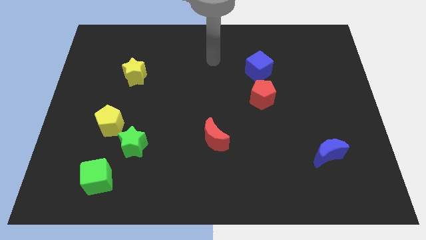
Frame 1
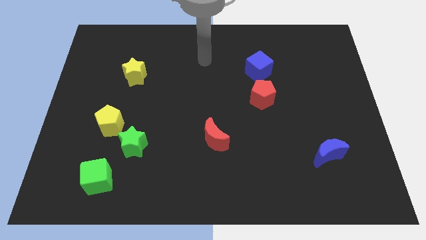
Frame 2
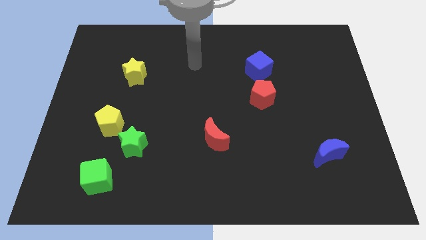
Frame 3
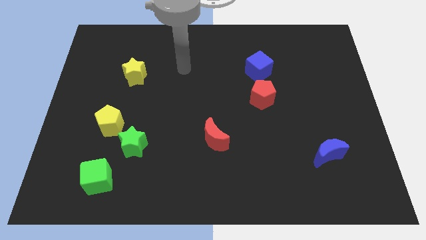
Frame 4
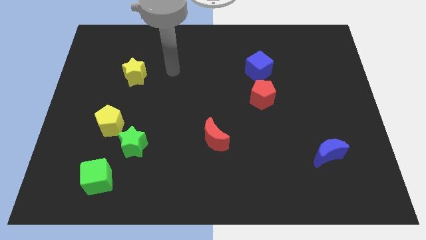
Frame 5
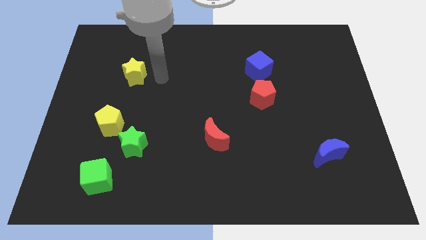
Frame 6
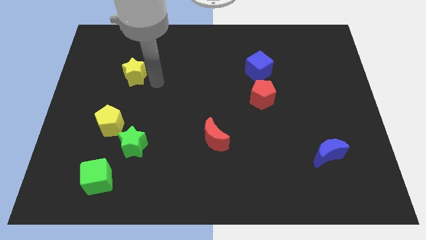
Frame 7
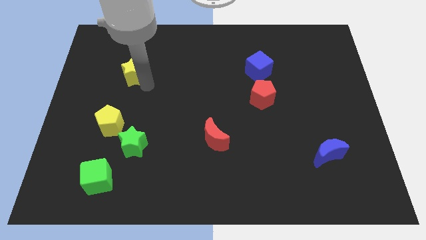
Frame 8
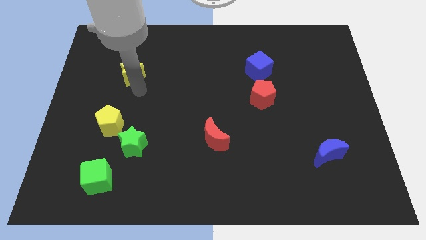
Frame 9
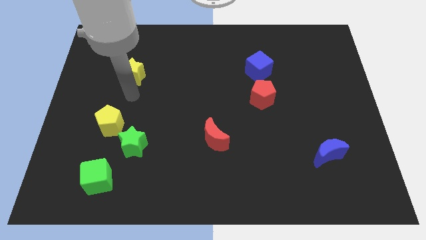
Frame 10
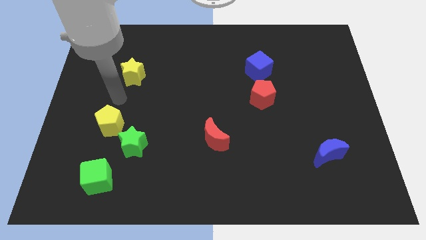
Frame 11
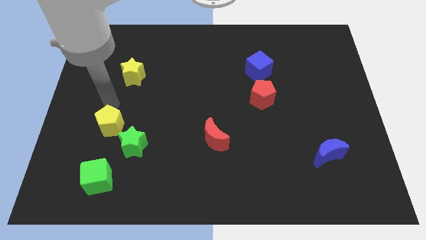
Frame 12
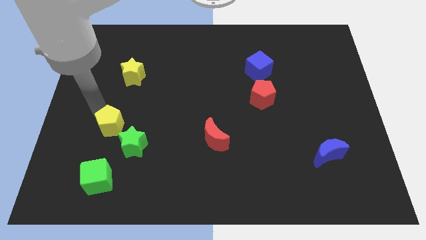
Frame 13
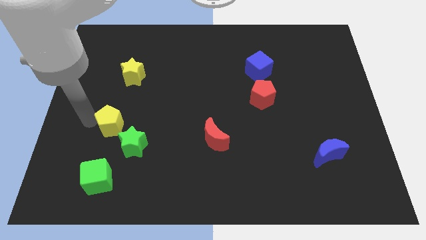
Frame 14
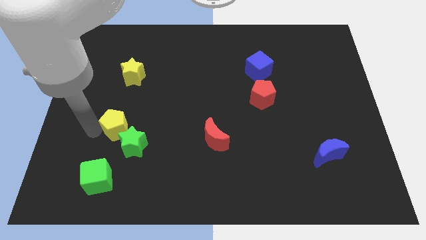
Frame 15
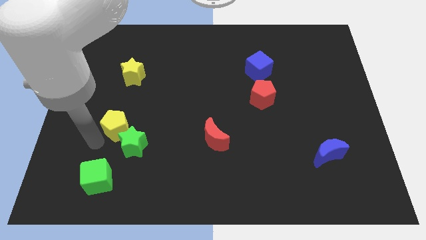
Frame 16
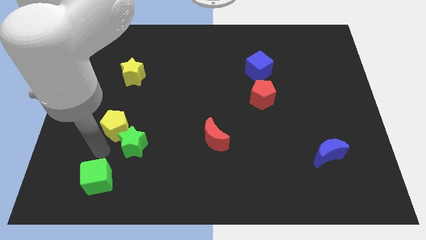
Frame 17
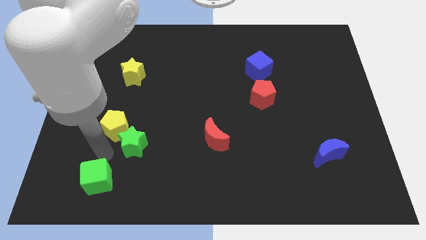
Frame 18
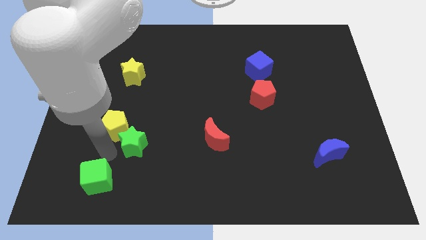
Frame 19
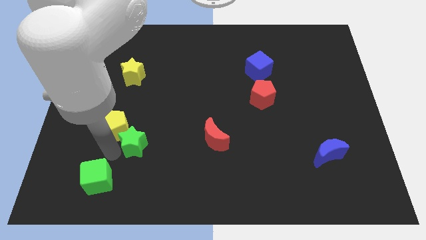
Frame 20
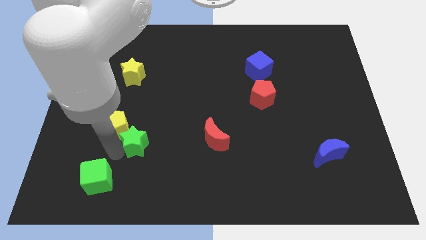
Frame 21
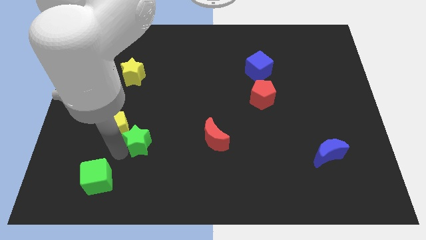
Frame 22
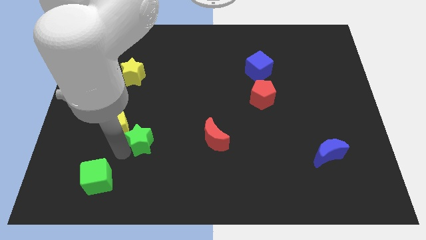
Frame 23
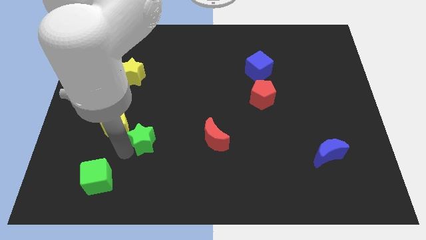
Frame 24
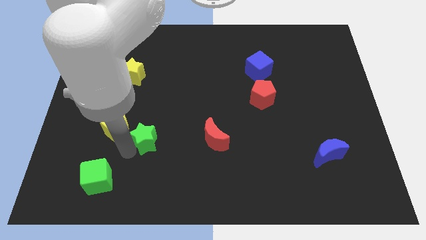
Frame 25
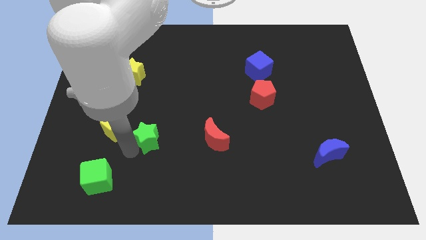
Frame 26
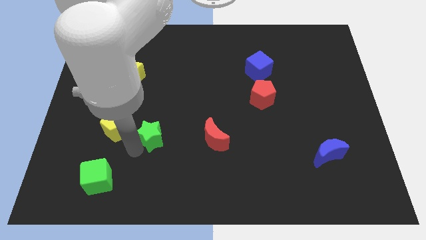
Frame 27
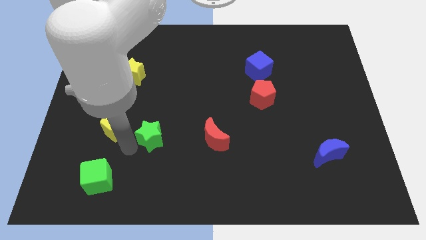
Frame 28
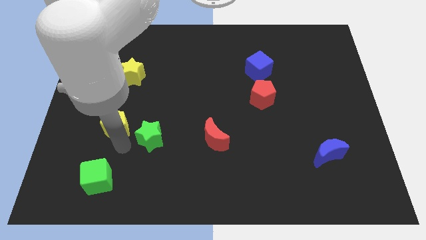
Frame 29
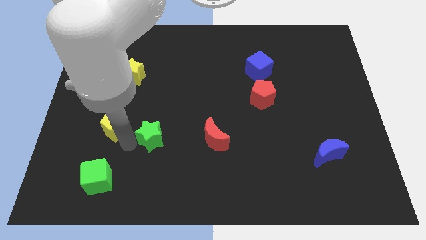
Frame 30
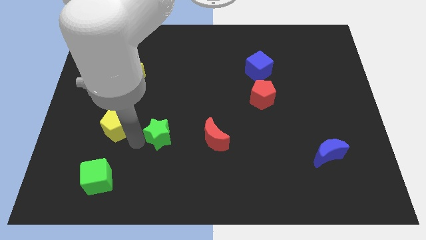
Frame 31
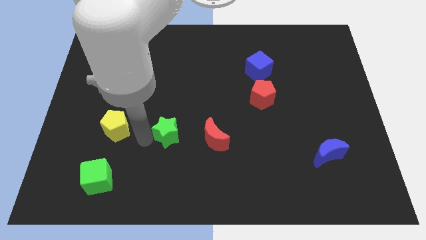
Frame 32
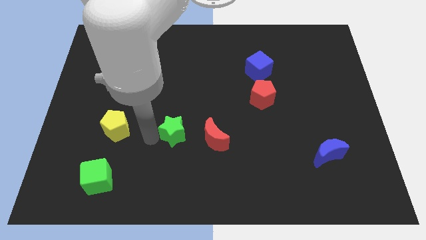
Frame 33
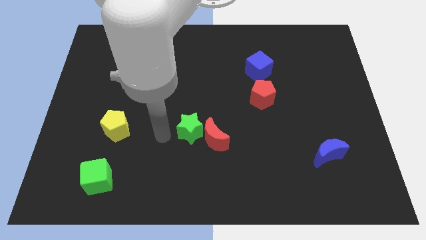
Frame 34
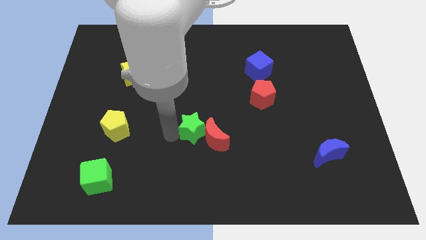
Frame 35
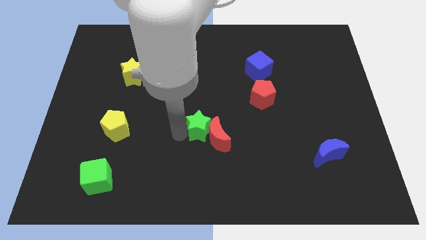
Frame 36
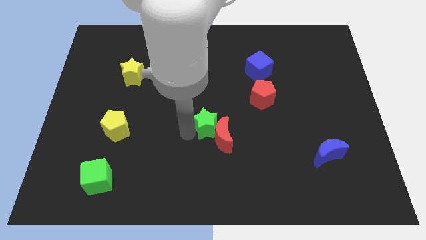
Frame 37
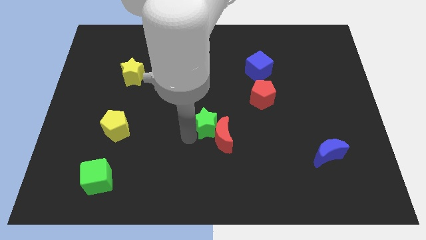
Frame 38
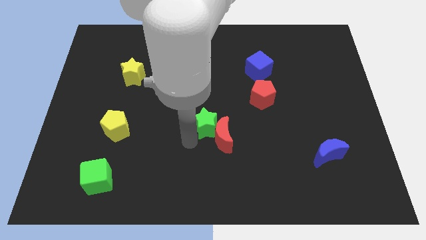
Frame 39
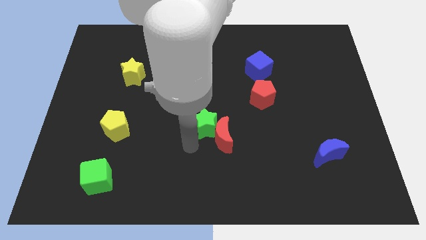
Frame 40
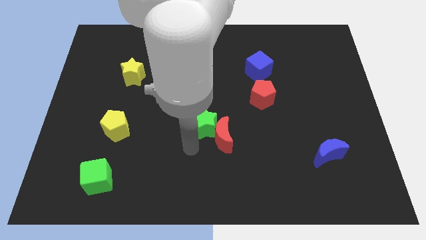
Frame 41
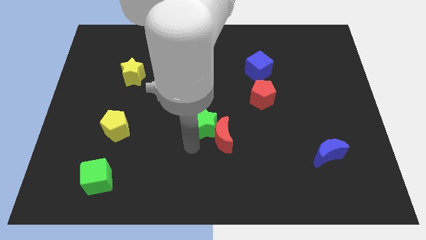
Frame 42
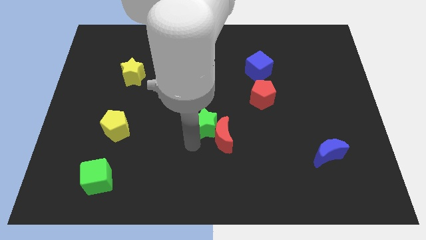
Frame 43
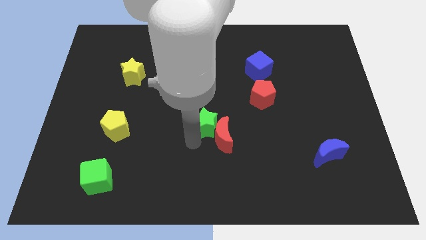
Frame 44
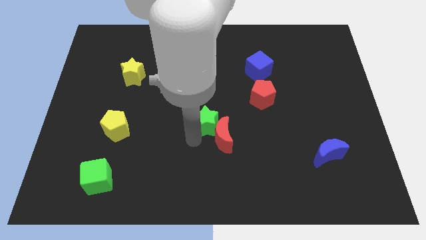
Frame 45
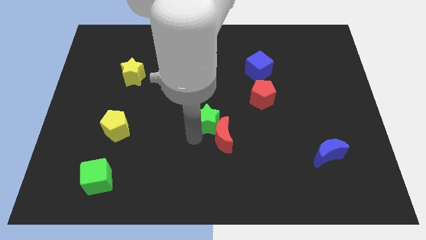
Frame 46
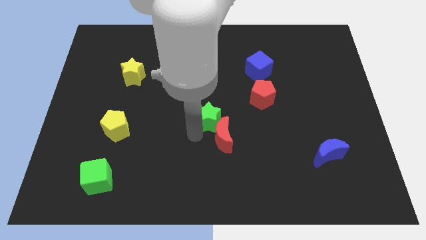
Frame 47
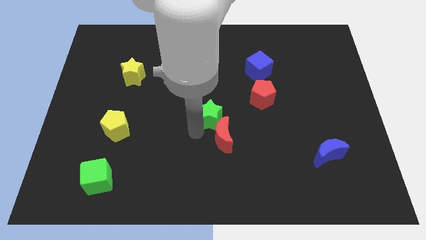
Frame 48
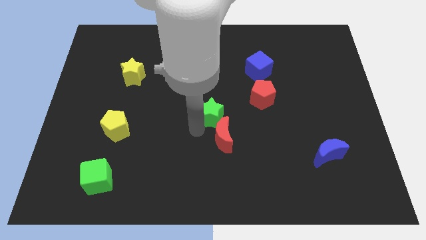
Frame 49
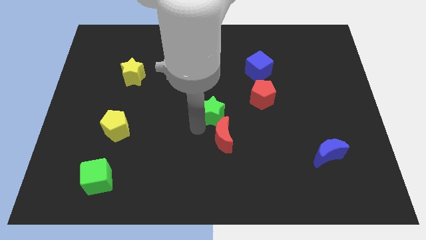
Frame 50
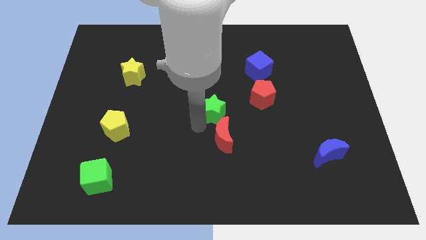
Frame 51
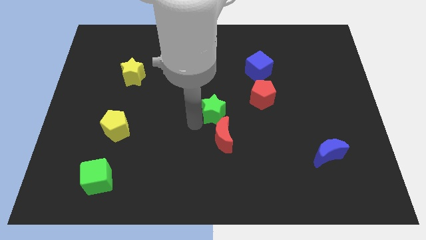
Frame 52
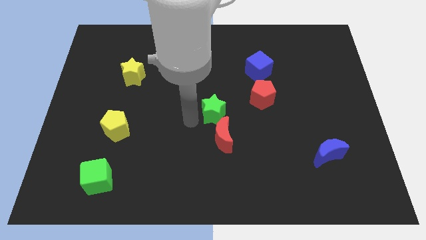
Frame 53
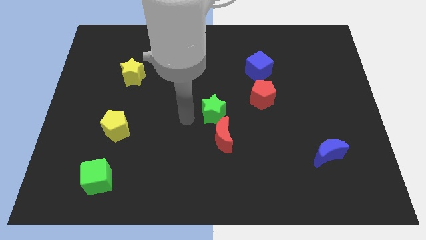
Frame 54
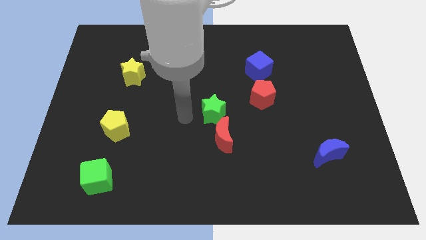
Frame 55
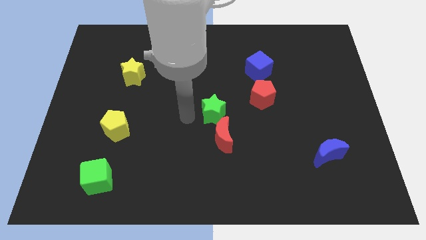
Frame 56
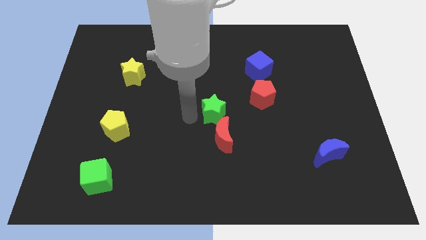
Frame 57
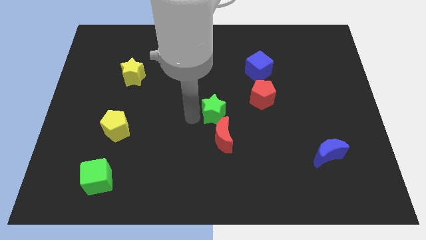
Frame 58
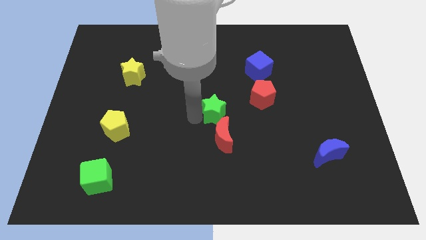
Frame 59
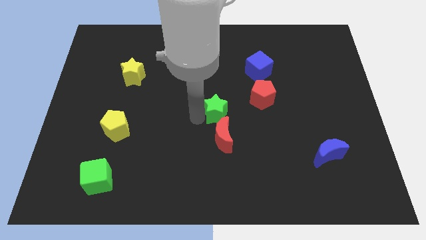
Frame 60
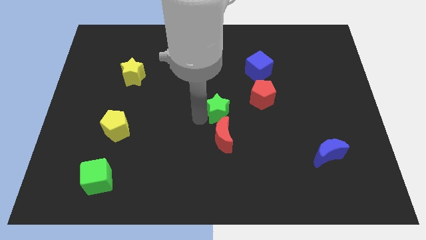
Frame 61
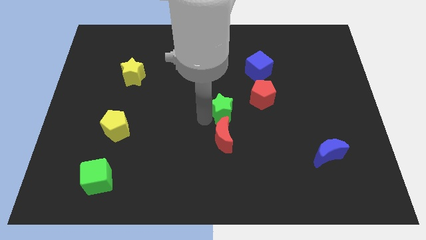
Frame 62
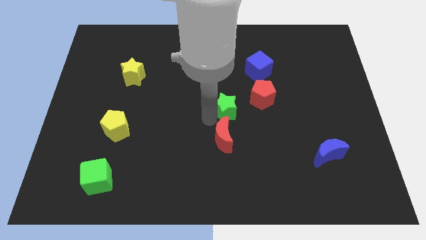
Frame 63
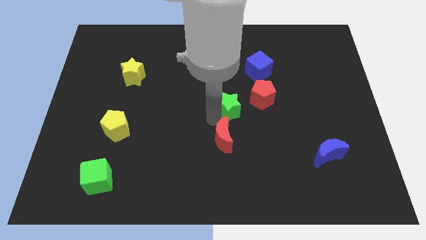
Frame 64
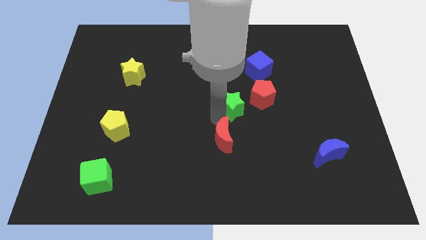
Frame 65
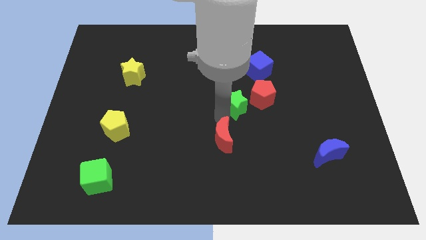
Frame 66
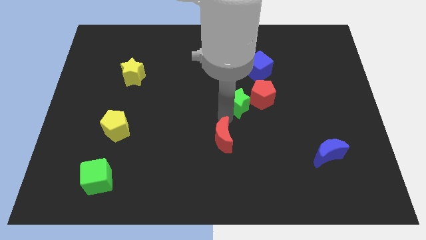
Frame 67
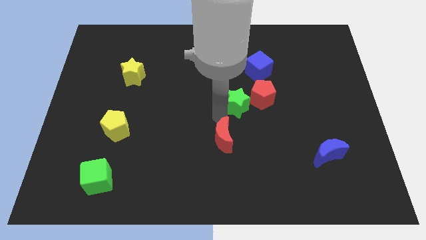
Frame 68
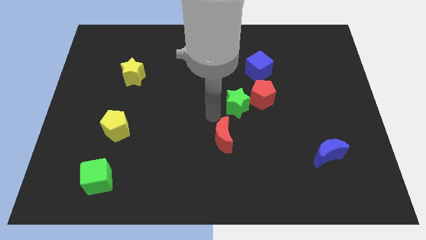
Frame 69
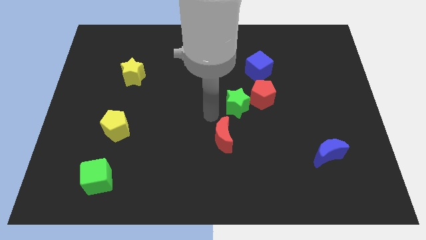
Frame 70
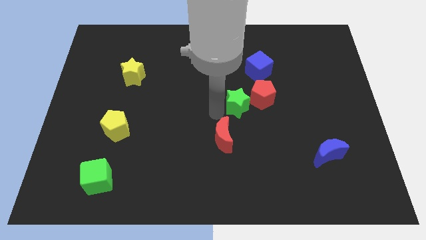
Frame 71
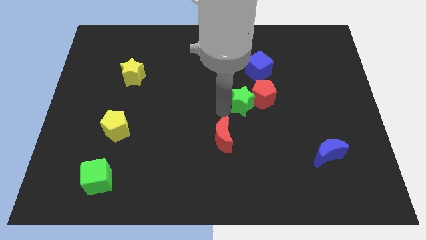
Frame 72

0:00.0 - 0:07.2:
push the green star to the red pentagon
